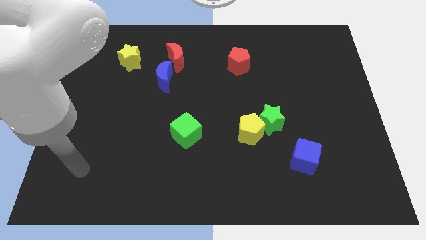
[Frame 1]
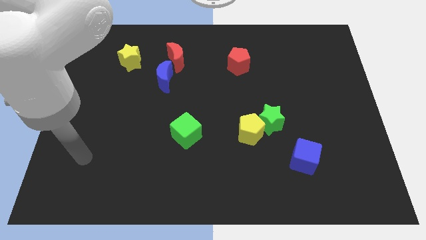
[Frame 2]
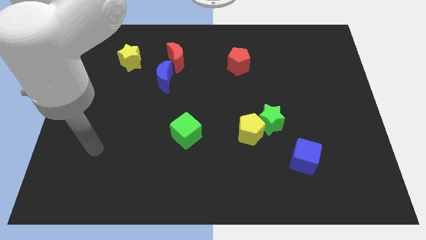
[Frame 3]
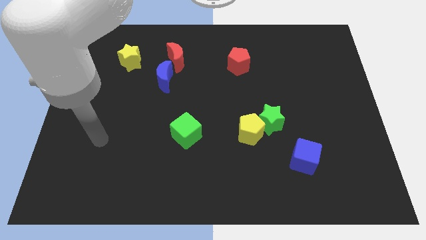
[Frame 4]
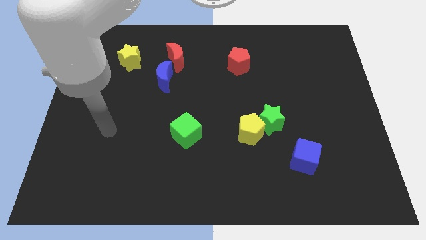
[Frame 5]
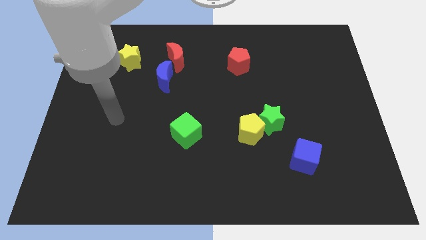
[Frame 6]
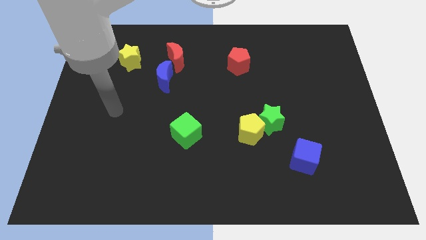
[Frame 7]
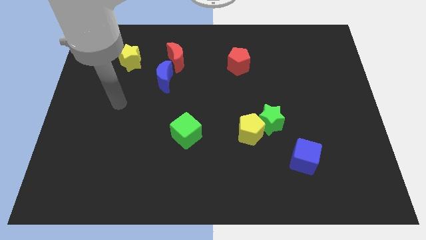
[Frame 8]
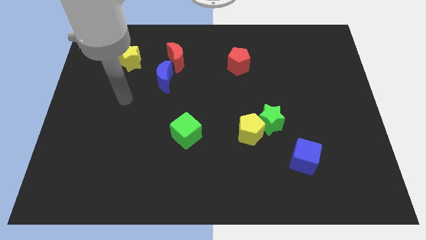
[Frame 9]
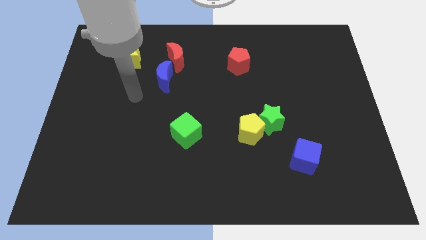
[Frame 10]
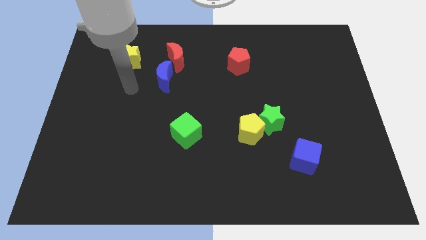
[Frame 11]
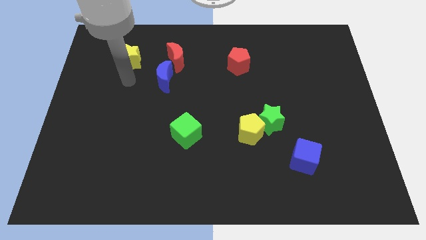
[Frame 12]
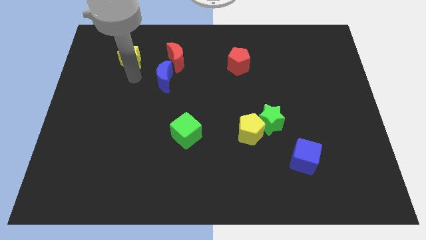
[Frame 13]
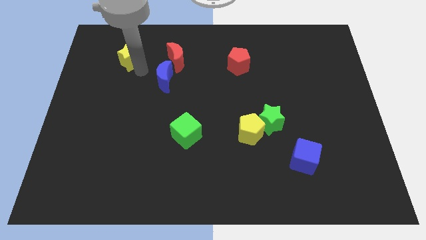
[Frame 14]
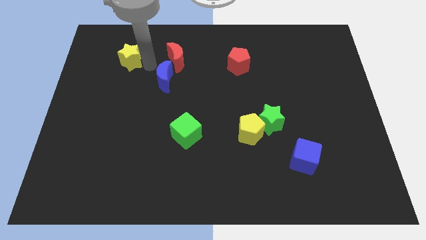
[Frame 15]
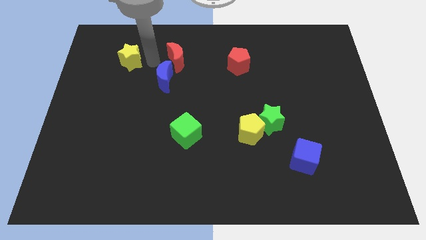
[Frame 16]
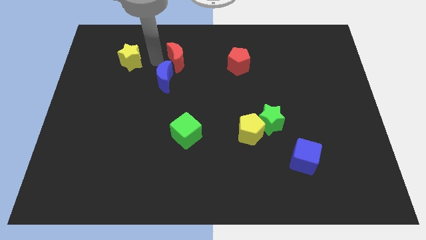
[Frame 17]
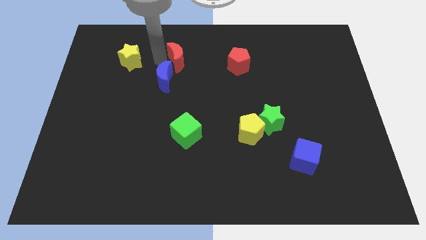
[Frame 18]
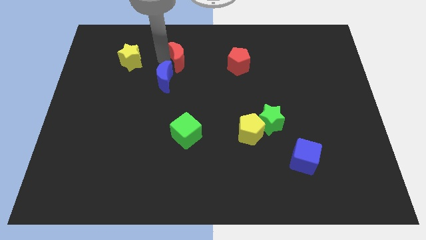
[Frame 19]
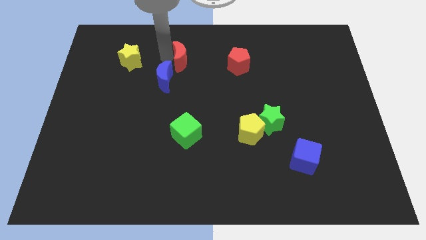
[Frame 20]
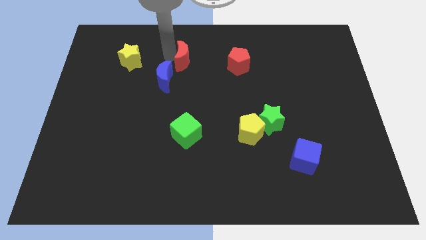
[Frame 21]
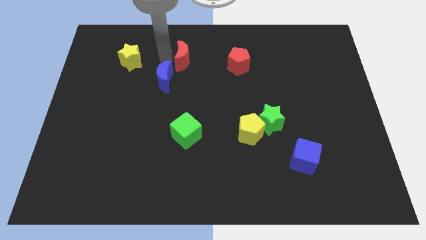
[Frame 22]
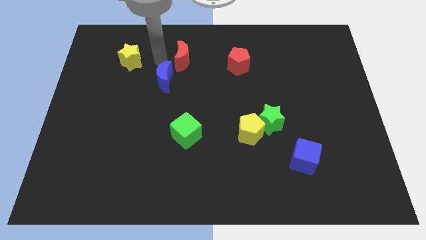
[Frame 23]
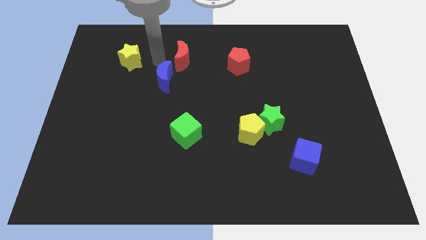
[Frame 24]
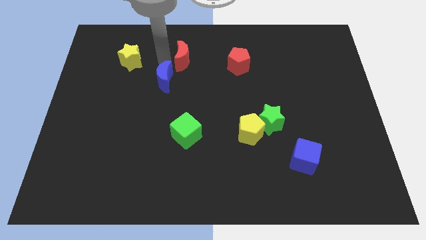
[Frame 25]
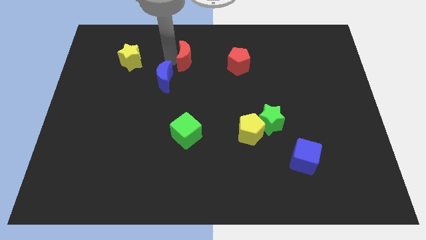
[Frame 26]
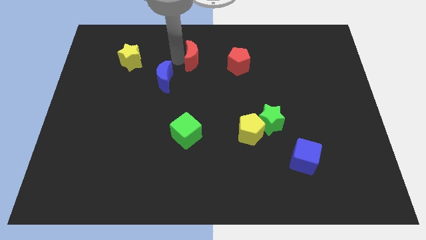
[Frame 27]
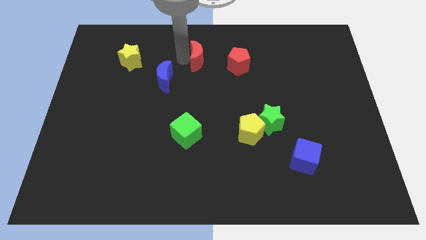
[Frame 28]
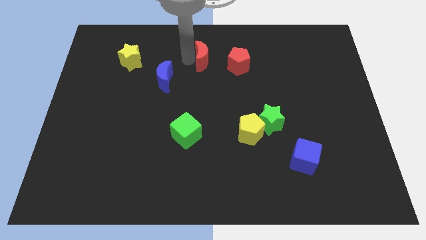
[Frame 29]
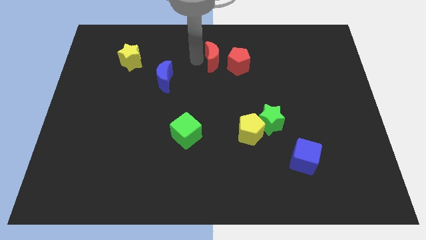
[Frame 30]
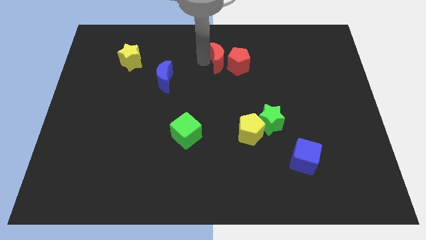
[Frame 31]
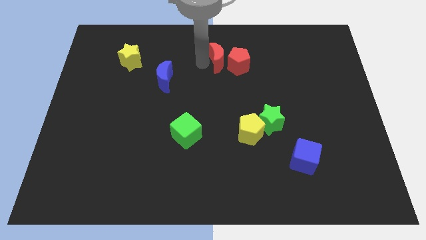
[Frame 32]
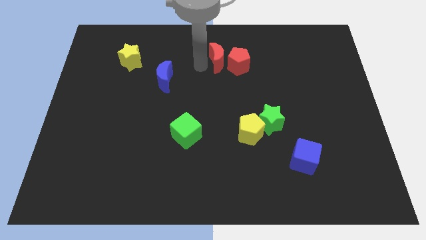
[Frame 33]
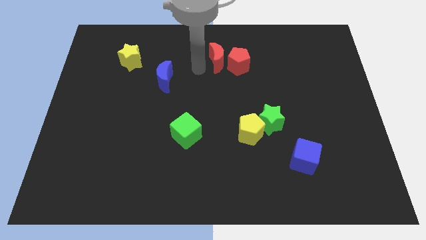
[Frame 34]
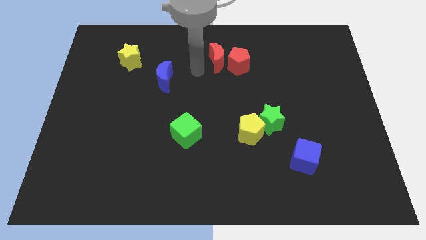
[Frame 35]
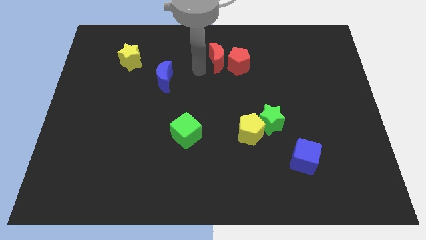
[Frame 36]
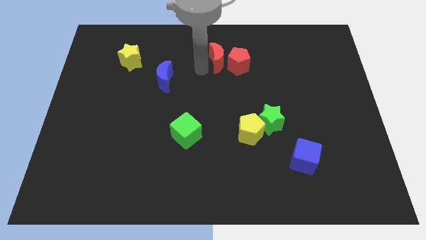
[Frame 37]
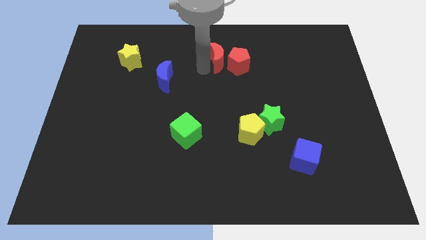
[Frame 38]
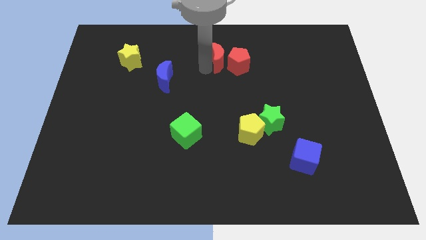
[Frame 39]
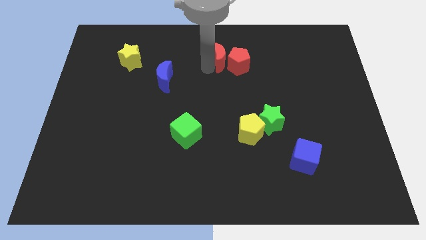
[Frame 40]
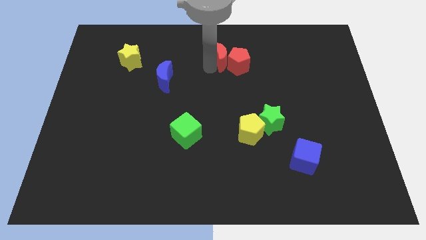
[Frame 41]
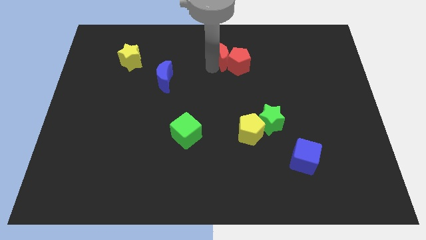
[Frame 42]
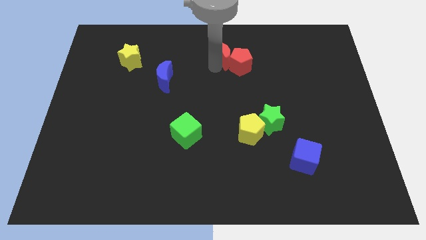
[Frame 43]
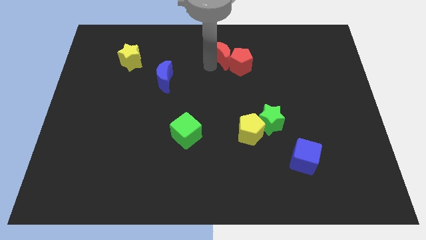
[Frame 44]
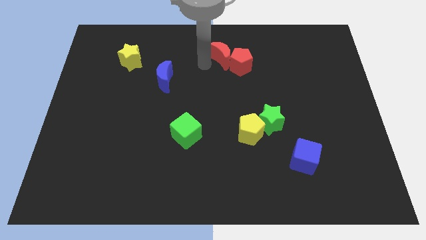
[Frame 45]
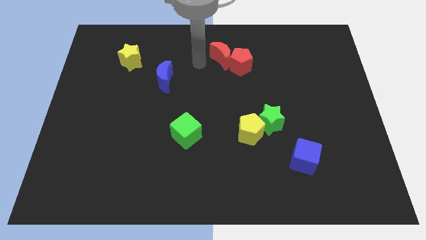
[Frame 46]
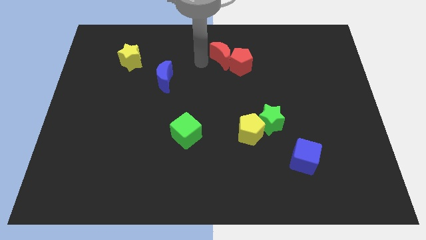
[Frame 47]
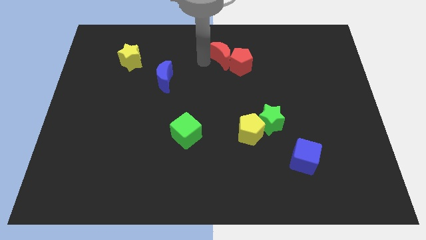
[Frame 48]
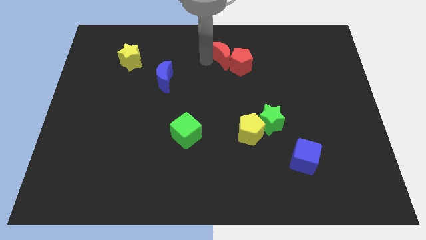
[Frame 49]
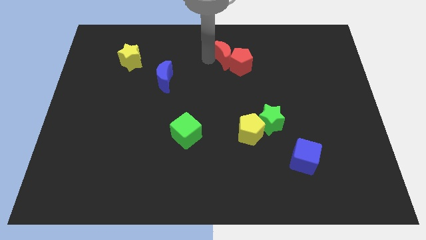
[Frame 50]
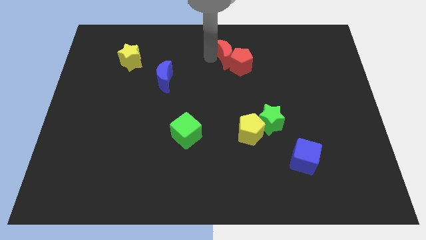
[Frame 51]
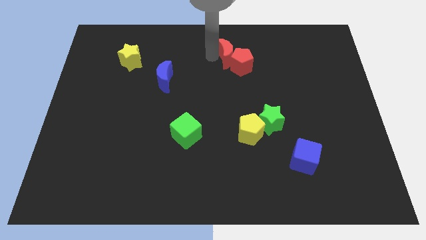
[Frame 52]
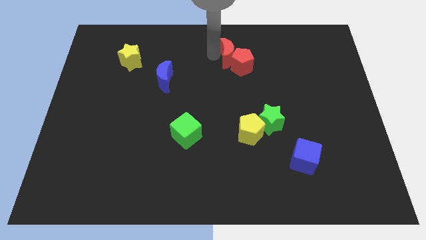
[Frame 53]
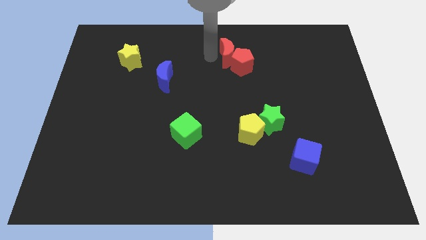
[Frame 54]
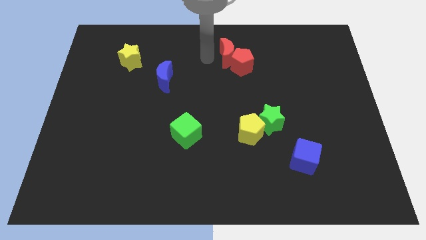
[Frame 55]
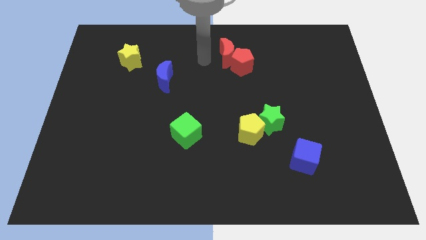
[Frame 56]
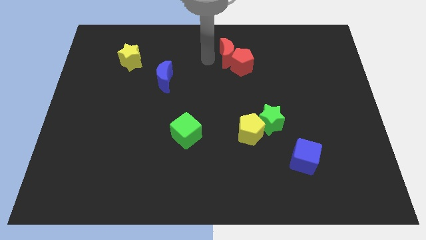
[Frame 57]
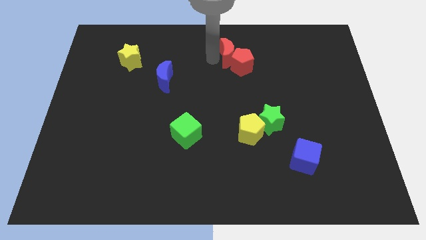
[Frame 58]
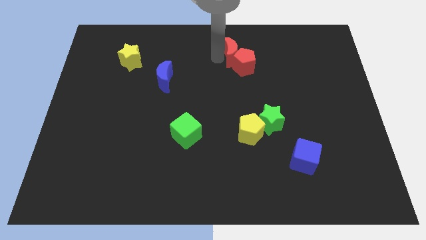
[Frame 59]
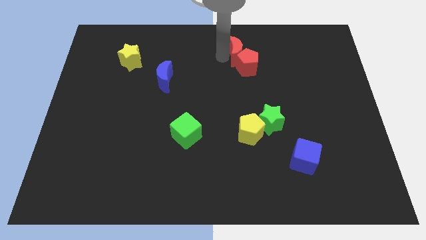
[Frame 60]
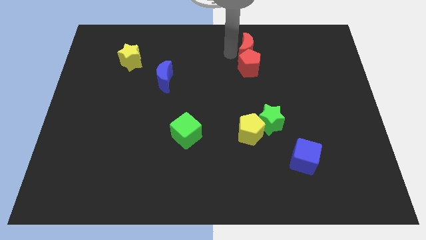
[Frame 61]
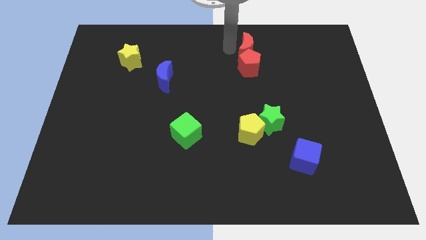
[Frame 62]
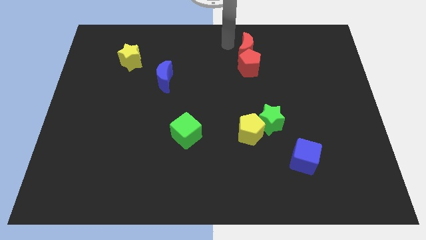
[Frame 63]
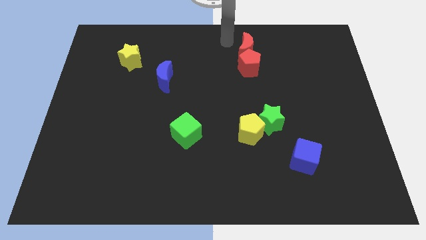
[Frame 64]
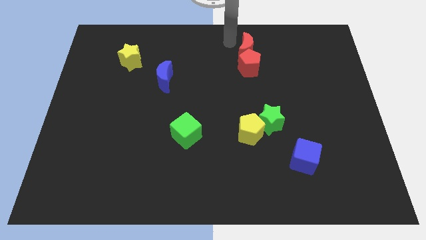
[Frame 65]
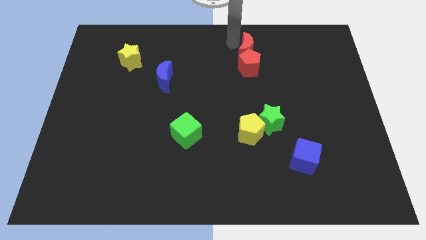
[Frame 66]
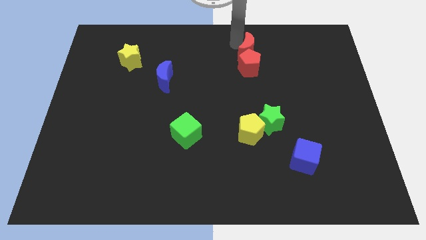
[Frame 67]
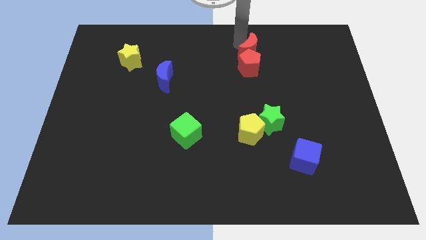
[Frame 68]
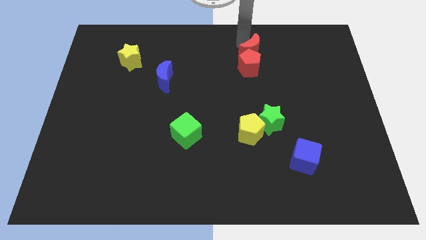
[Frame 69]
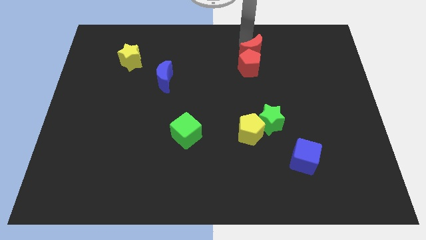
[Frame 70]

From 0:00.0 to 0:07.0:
move the red moon right

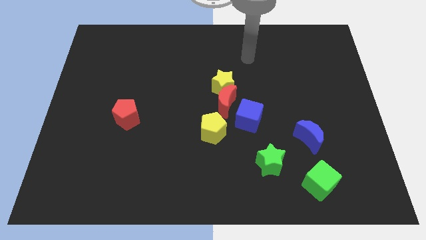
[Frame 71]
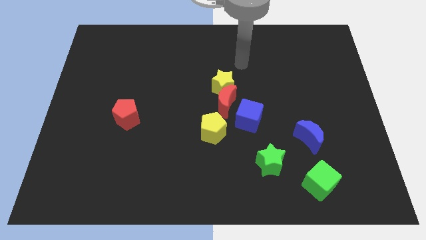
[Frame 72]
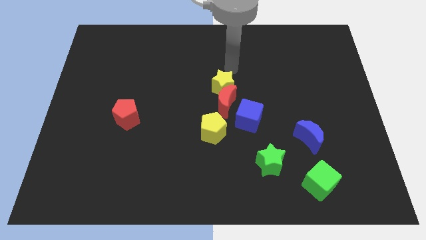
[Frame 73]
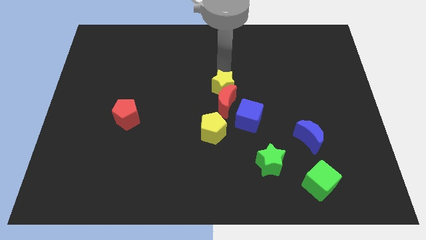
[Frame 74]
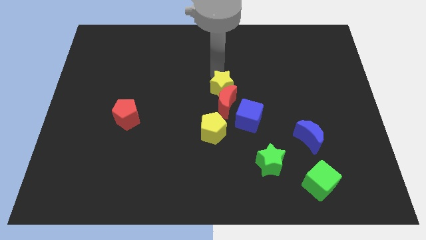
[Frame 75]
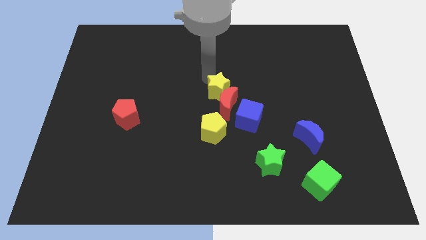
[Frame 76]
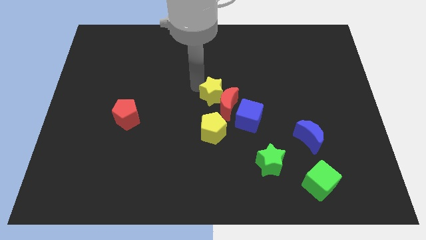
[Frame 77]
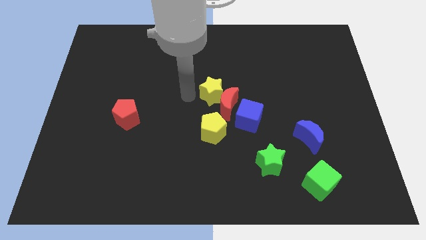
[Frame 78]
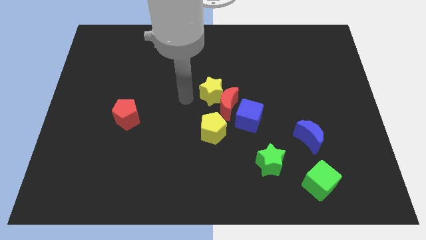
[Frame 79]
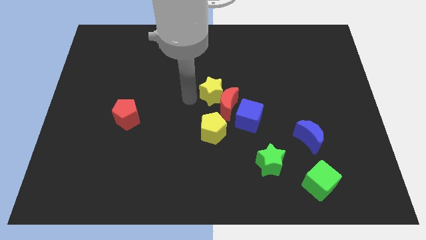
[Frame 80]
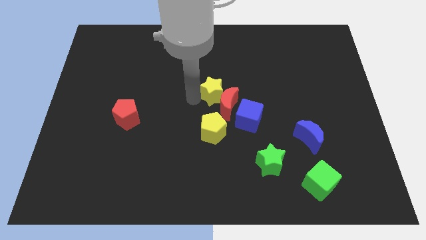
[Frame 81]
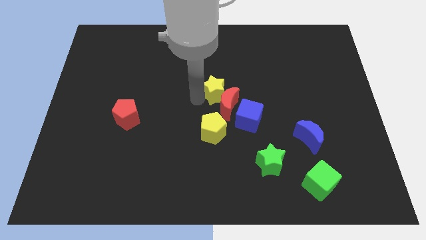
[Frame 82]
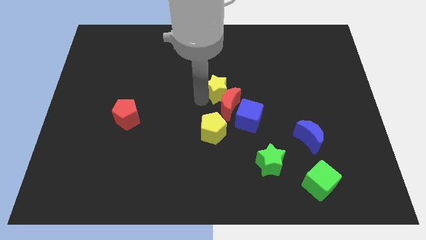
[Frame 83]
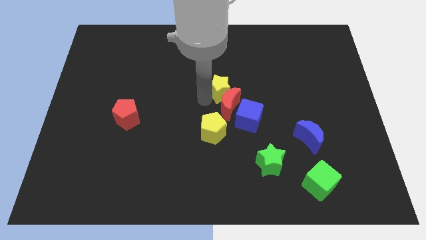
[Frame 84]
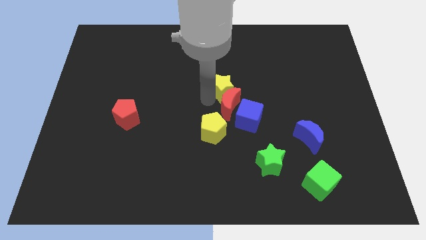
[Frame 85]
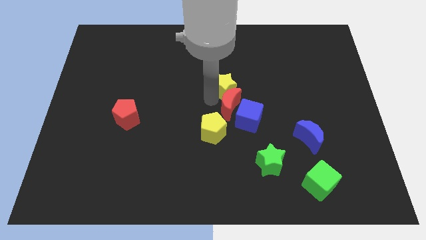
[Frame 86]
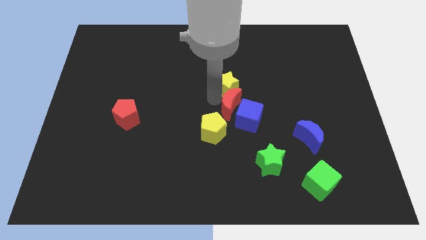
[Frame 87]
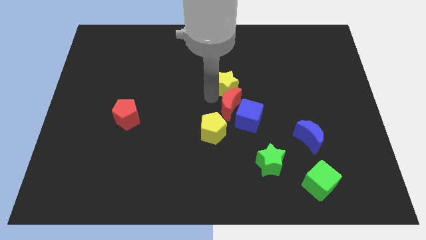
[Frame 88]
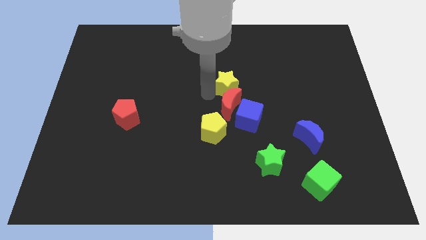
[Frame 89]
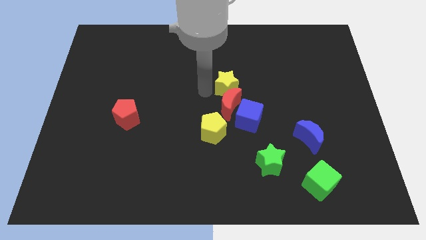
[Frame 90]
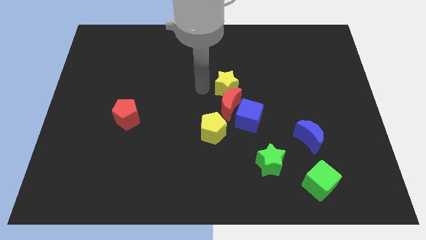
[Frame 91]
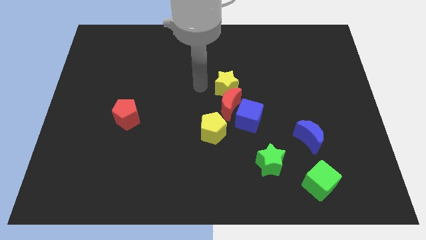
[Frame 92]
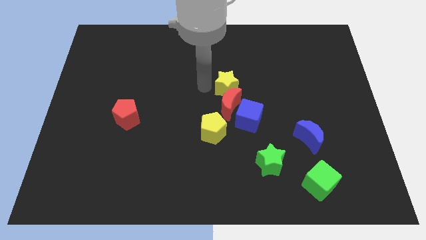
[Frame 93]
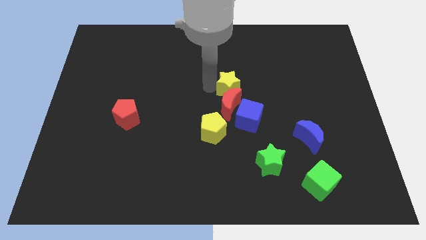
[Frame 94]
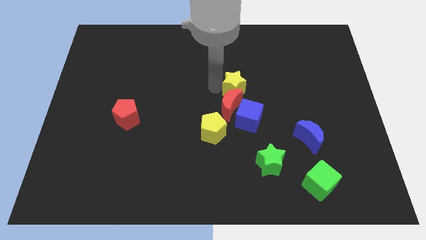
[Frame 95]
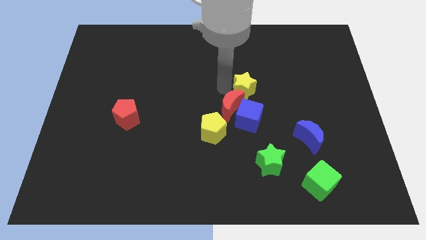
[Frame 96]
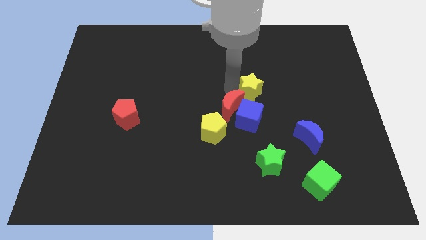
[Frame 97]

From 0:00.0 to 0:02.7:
slightly slide the yellow star to the right
